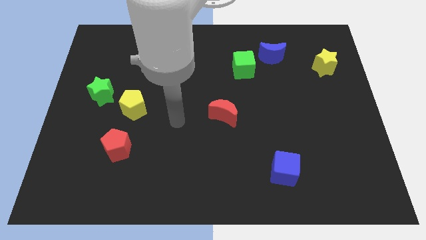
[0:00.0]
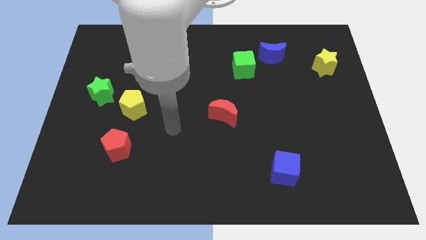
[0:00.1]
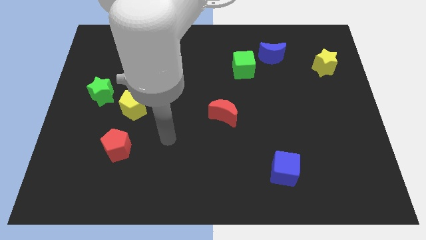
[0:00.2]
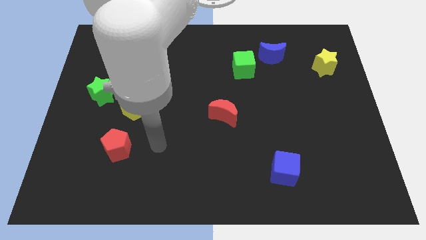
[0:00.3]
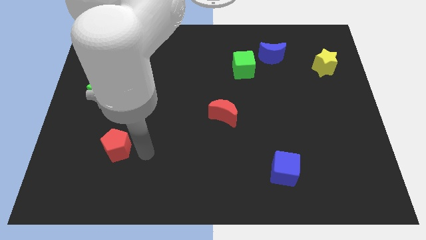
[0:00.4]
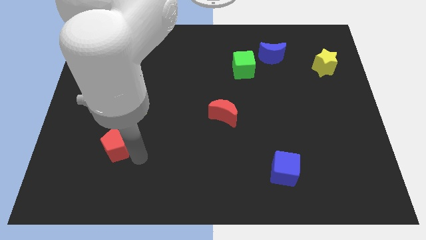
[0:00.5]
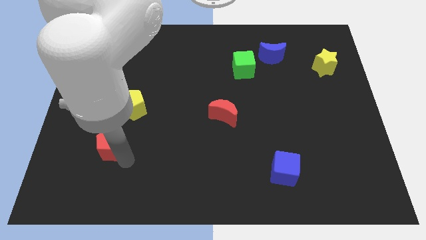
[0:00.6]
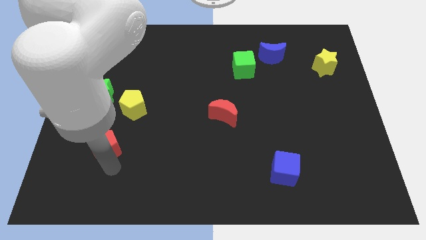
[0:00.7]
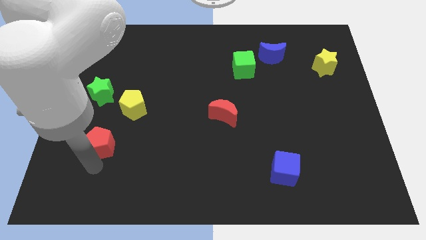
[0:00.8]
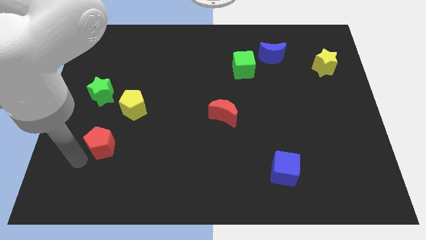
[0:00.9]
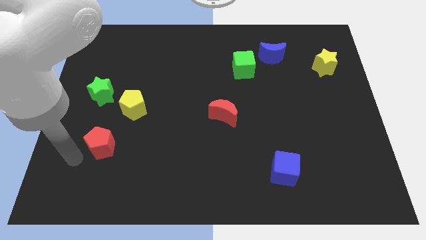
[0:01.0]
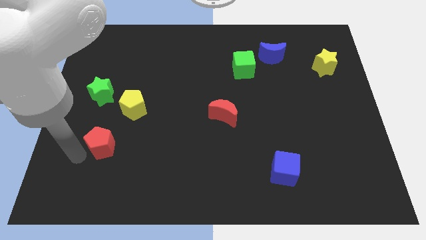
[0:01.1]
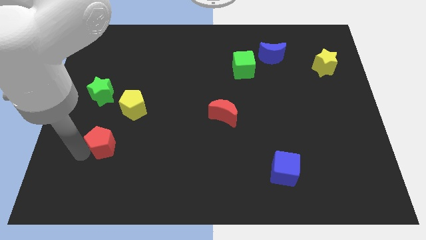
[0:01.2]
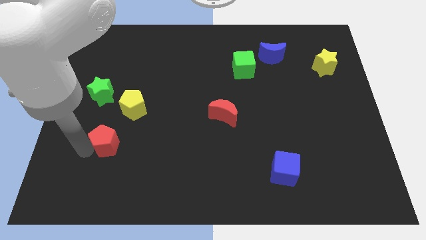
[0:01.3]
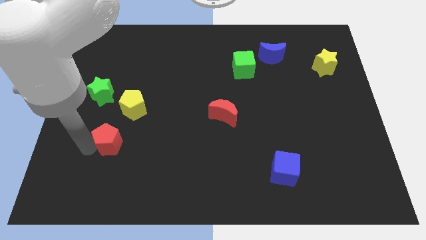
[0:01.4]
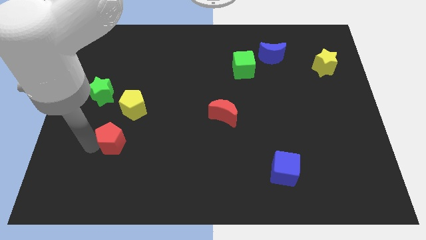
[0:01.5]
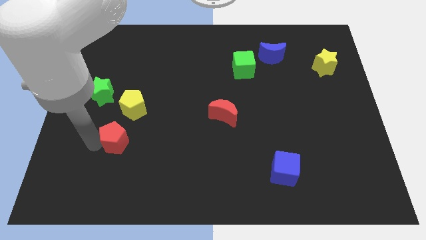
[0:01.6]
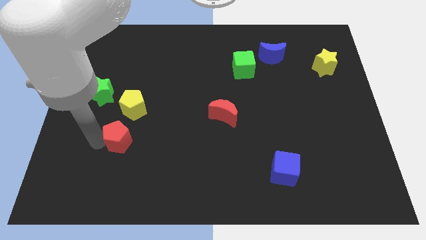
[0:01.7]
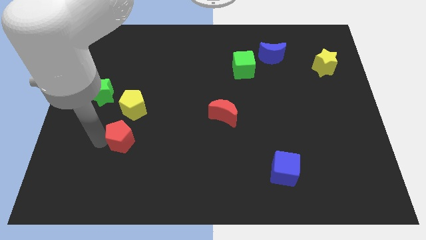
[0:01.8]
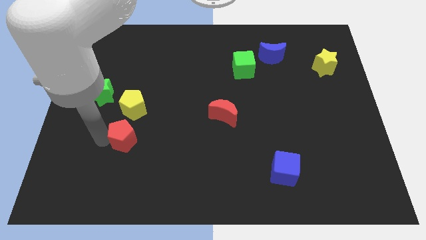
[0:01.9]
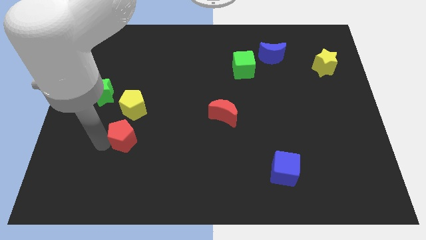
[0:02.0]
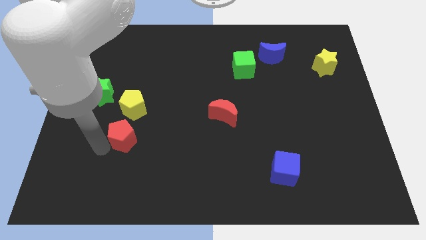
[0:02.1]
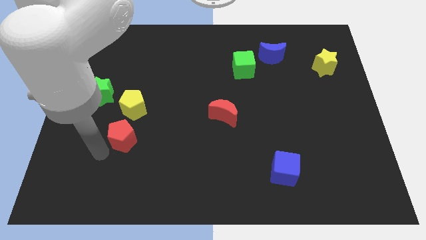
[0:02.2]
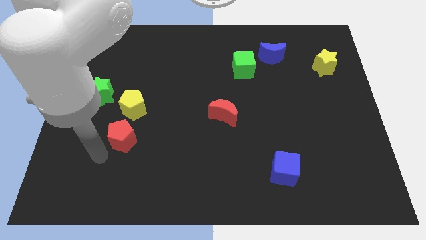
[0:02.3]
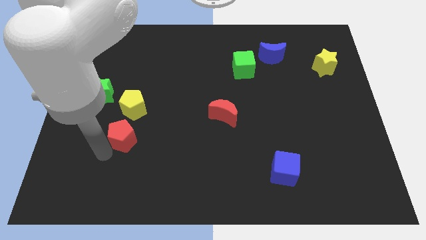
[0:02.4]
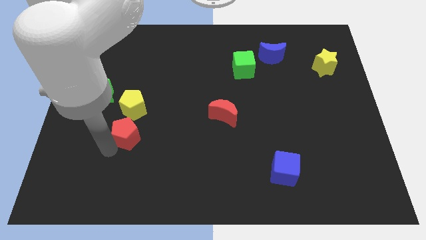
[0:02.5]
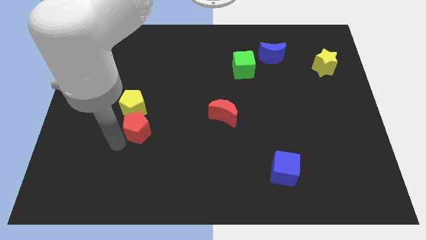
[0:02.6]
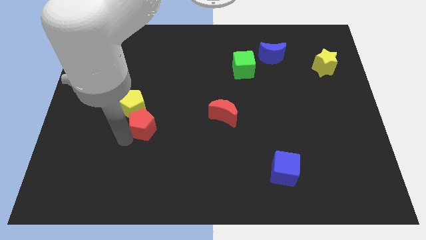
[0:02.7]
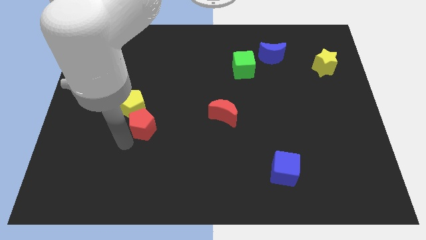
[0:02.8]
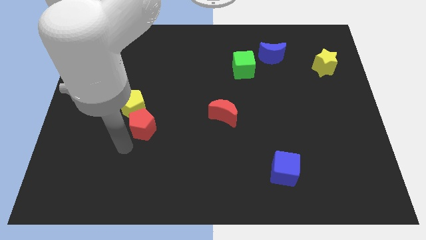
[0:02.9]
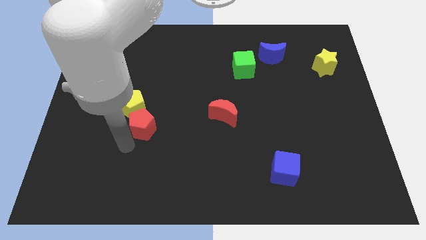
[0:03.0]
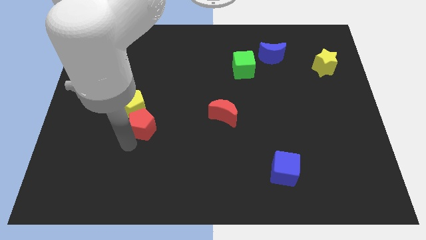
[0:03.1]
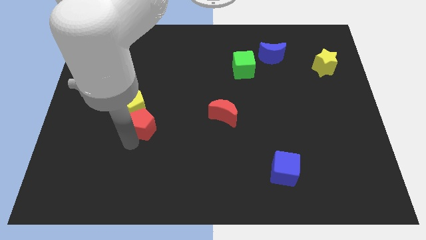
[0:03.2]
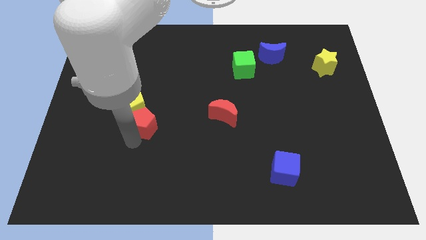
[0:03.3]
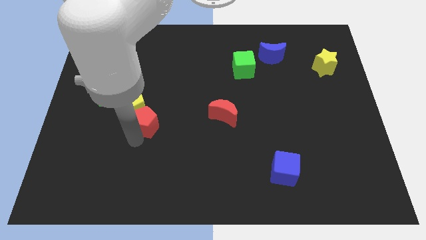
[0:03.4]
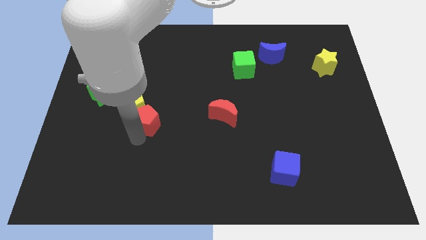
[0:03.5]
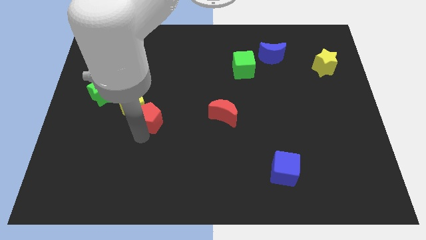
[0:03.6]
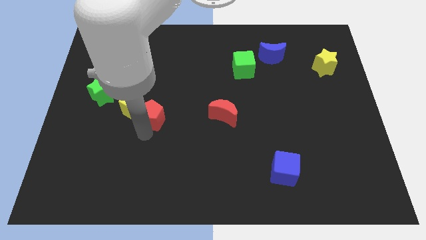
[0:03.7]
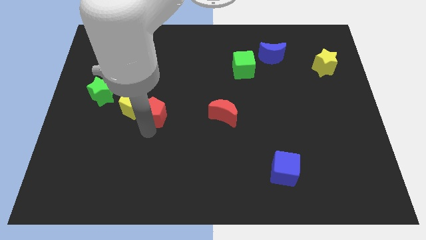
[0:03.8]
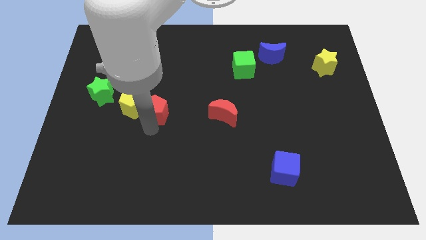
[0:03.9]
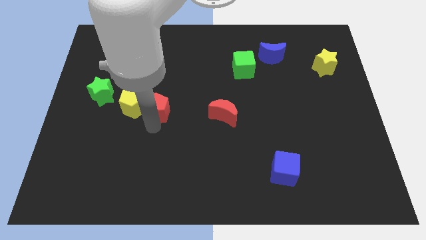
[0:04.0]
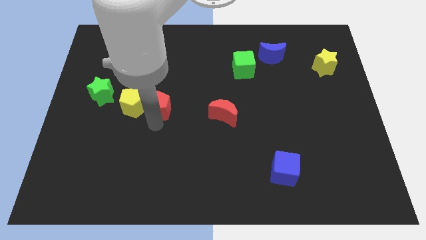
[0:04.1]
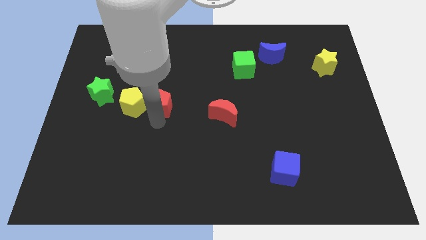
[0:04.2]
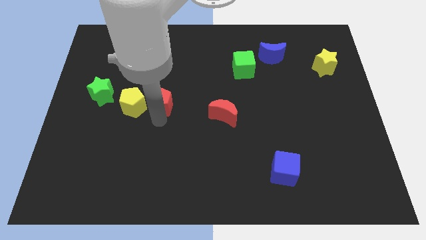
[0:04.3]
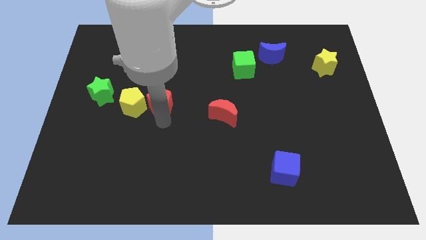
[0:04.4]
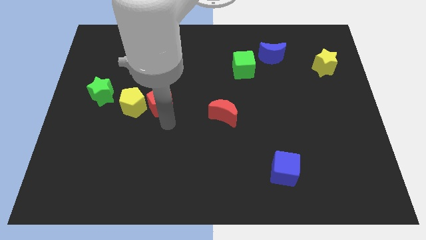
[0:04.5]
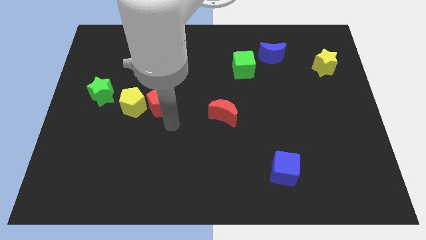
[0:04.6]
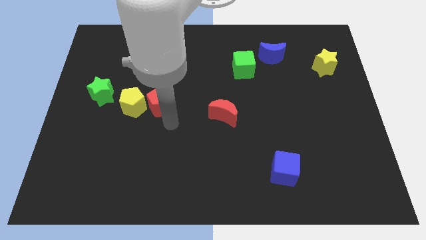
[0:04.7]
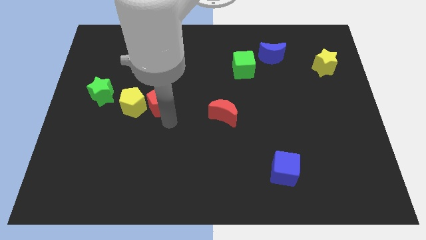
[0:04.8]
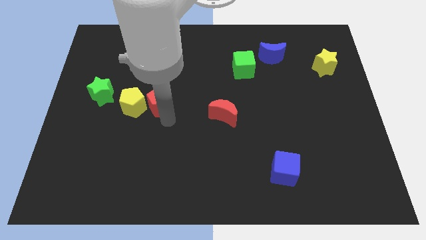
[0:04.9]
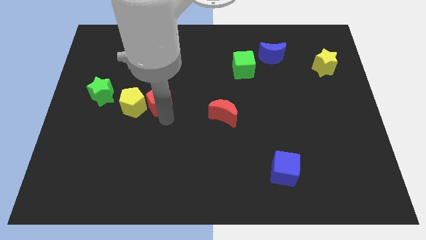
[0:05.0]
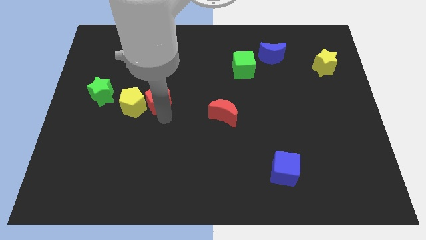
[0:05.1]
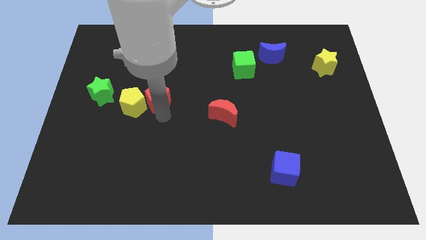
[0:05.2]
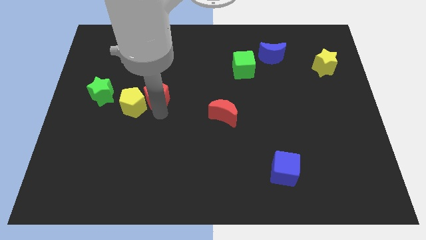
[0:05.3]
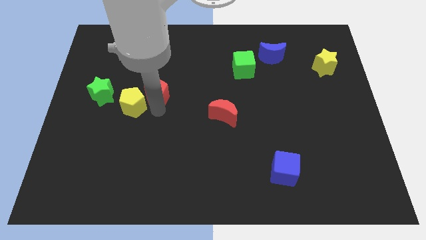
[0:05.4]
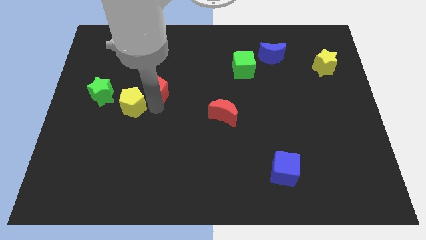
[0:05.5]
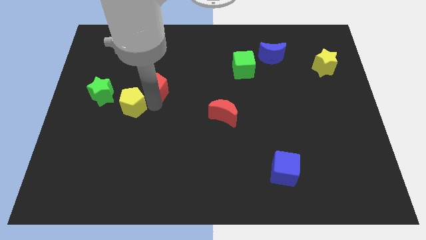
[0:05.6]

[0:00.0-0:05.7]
push the red pentagon to the top side of the yellow pentagon

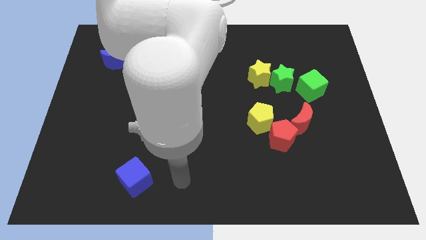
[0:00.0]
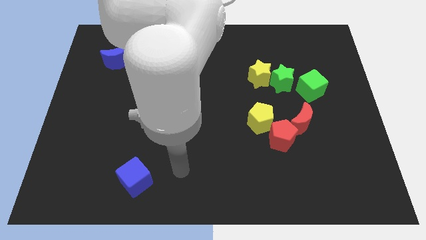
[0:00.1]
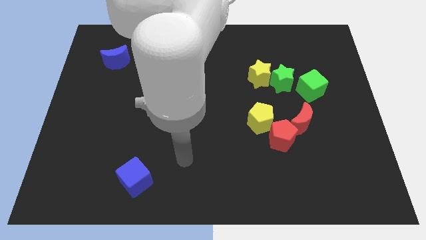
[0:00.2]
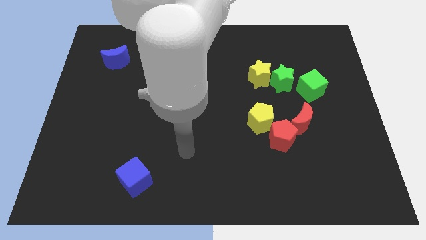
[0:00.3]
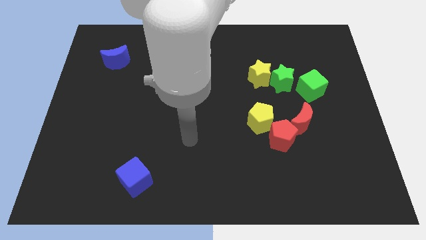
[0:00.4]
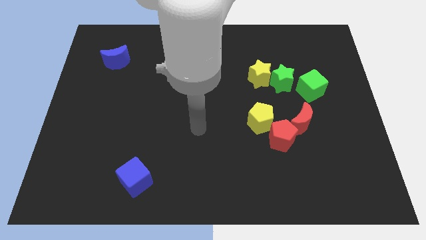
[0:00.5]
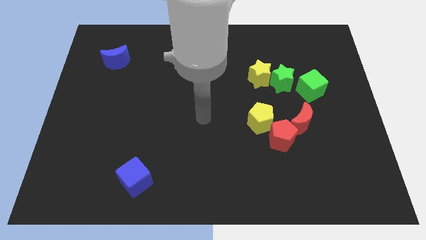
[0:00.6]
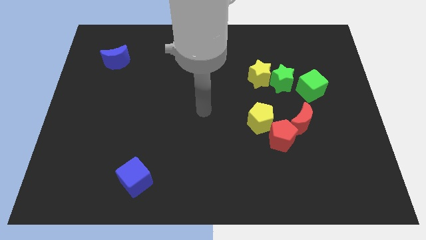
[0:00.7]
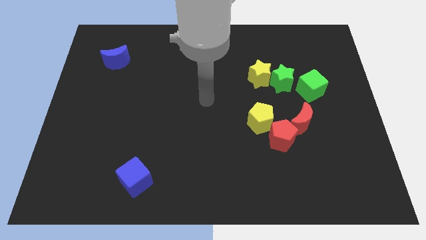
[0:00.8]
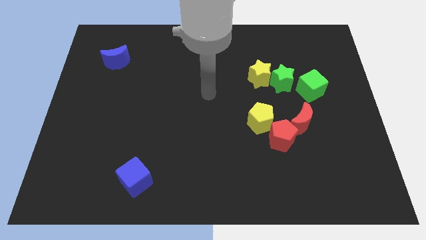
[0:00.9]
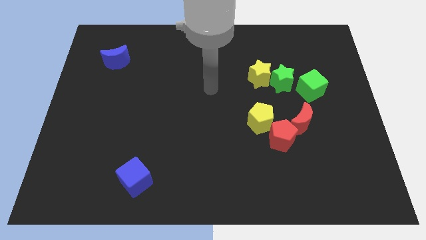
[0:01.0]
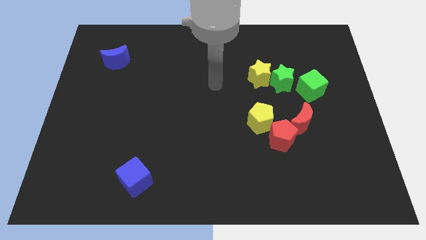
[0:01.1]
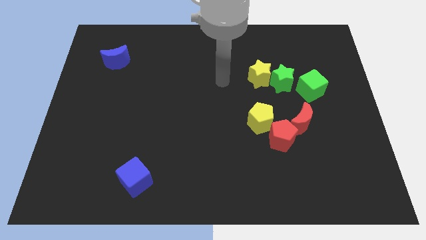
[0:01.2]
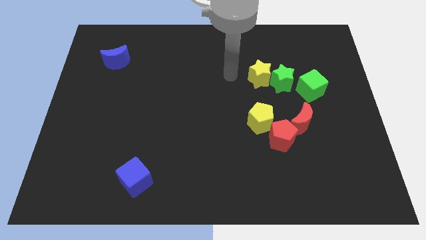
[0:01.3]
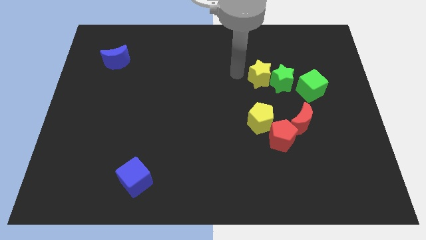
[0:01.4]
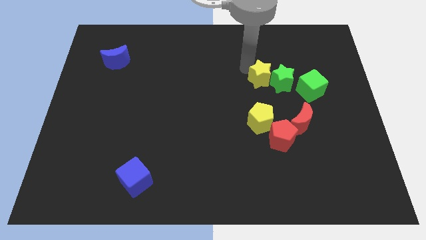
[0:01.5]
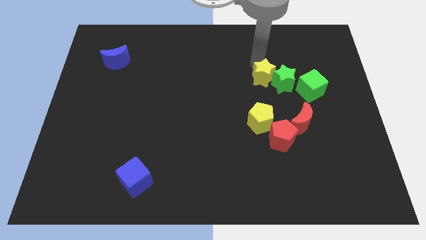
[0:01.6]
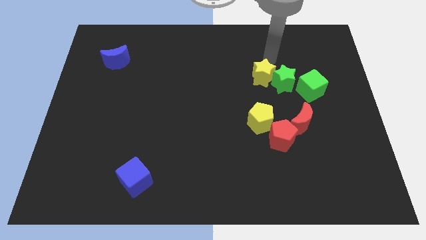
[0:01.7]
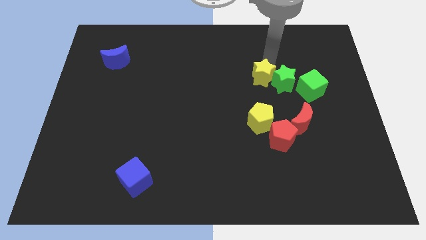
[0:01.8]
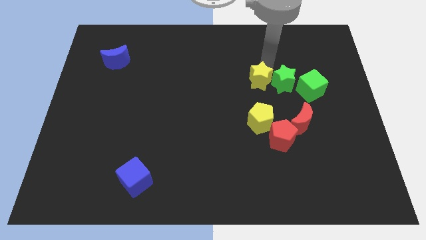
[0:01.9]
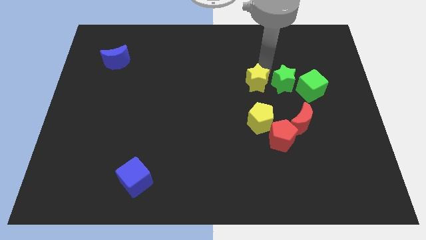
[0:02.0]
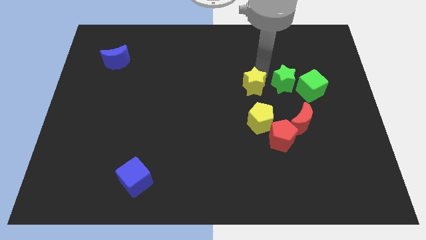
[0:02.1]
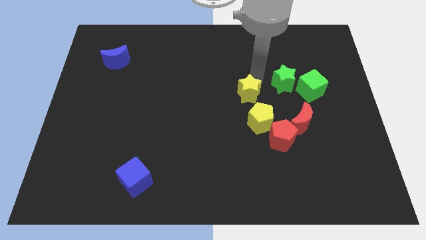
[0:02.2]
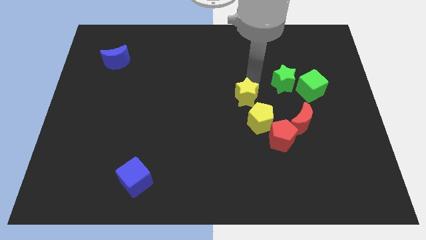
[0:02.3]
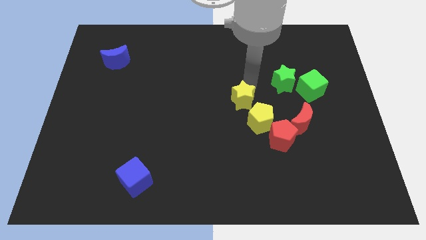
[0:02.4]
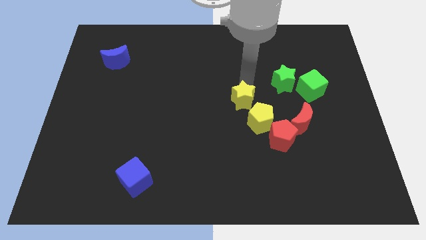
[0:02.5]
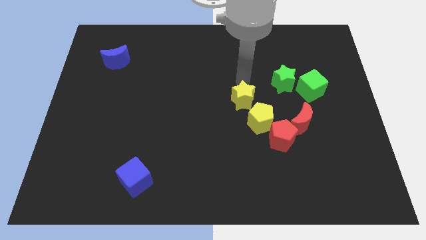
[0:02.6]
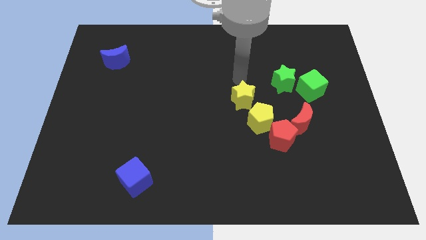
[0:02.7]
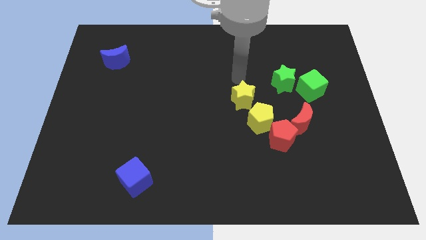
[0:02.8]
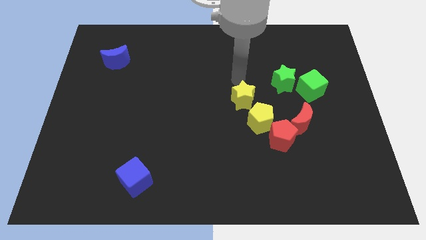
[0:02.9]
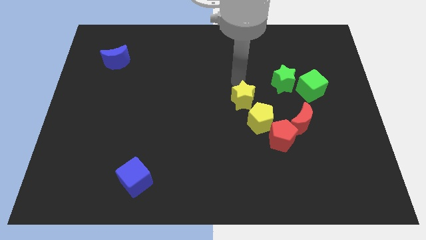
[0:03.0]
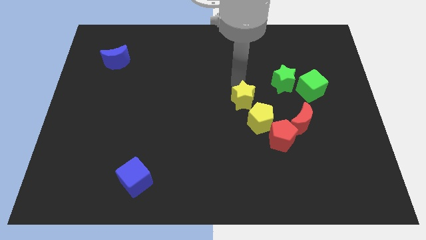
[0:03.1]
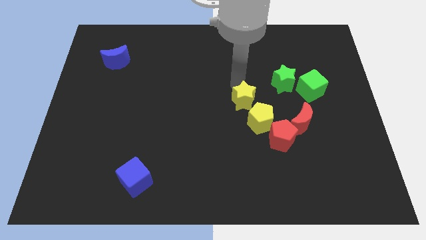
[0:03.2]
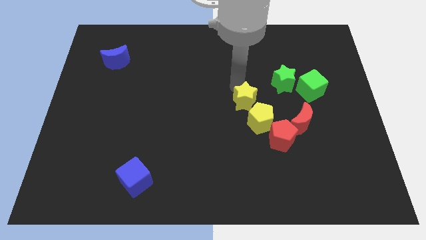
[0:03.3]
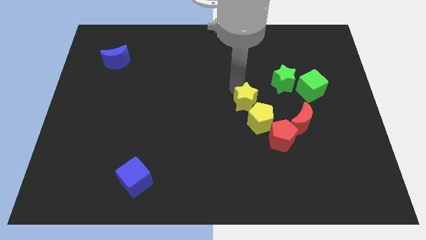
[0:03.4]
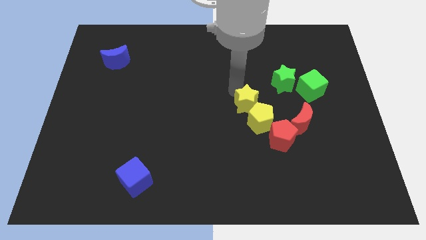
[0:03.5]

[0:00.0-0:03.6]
put the yellow star to the top left side of the red pentagon
